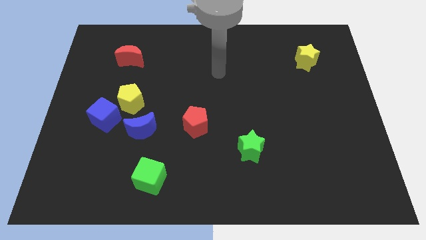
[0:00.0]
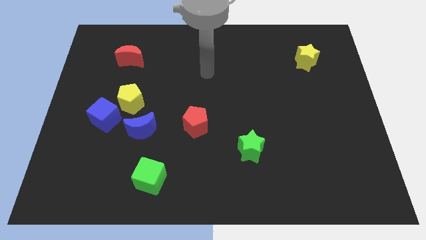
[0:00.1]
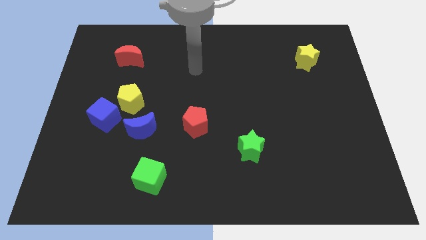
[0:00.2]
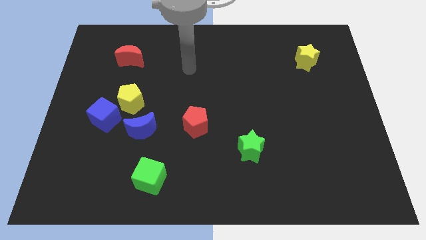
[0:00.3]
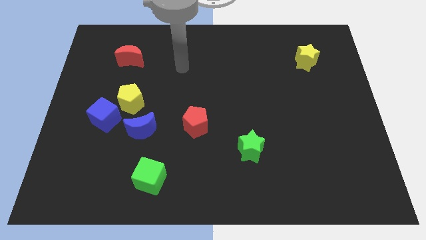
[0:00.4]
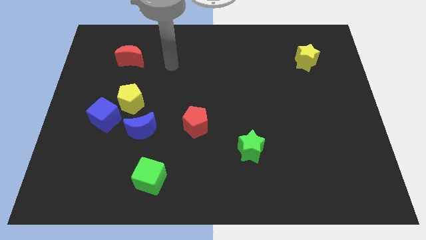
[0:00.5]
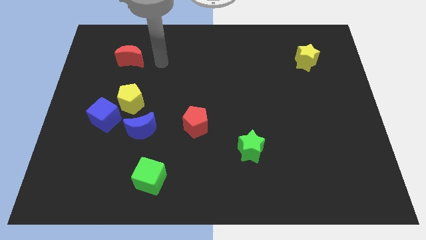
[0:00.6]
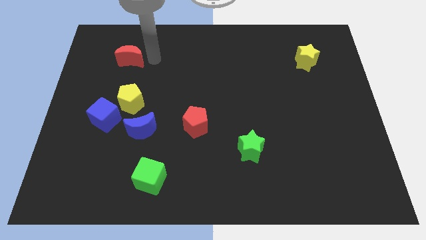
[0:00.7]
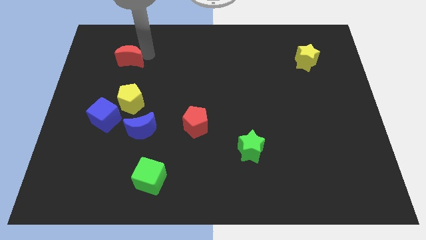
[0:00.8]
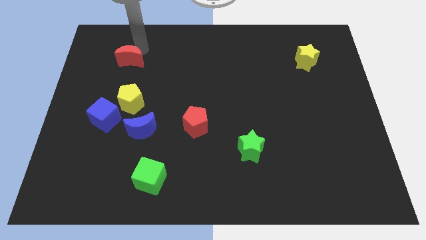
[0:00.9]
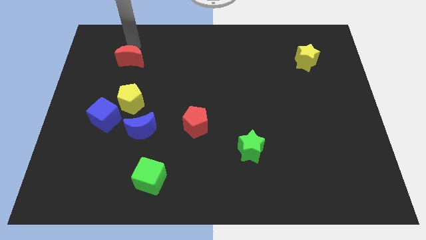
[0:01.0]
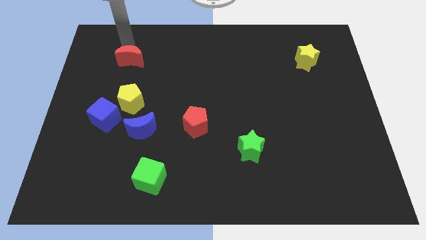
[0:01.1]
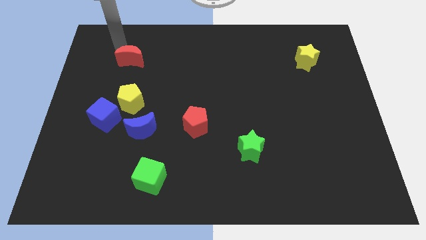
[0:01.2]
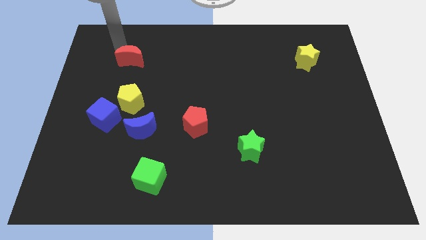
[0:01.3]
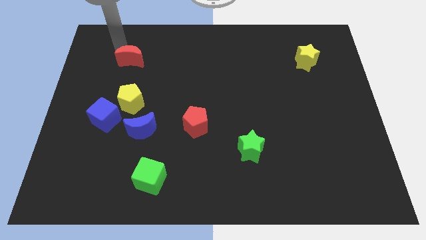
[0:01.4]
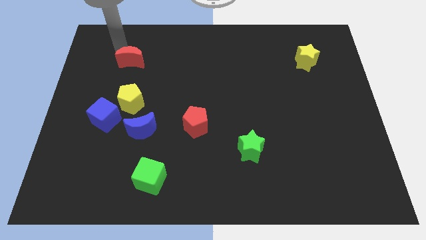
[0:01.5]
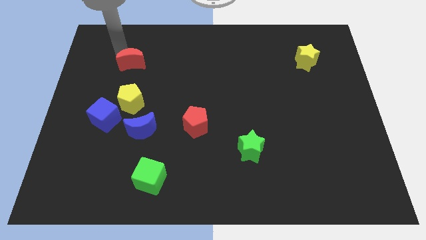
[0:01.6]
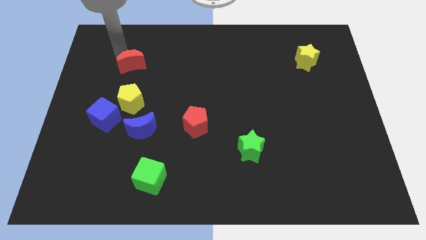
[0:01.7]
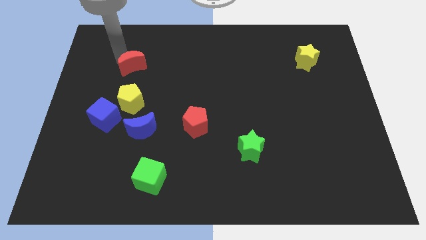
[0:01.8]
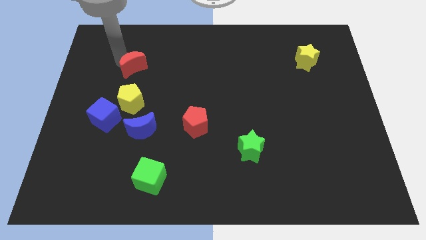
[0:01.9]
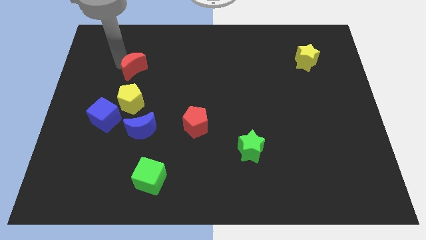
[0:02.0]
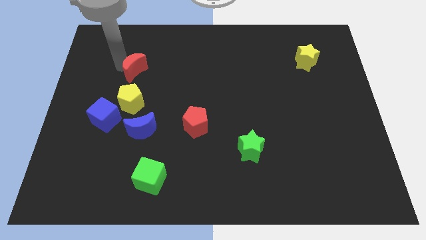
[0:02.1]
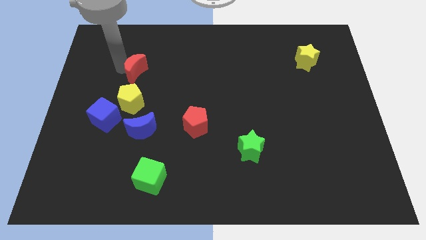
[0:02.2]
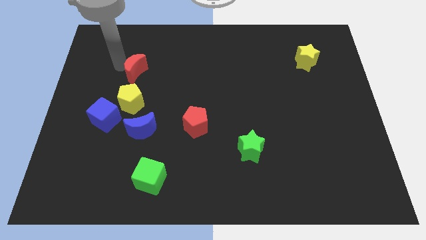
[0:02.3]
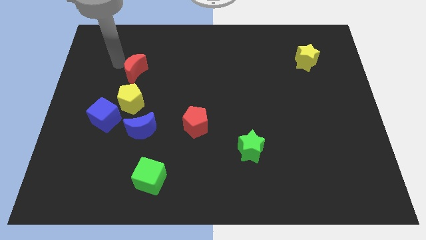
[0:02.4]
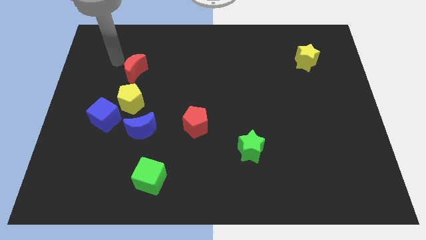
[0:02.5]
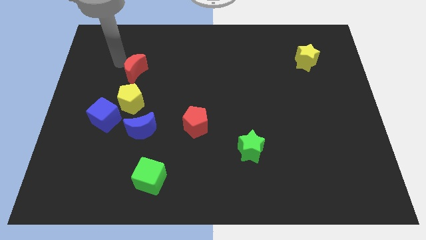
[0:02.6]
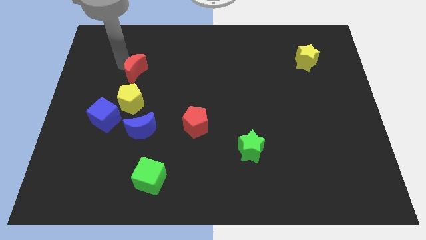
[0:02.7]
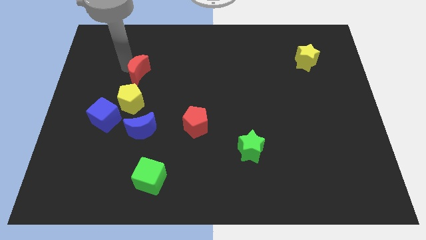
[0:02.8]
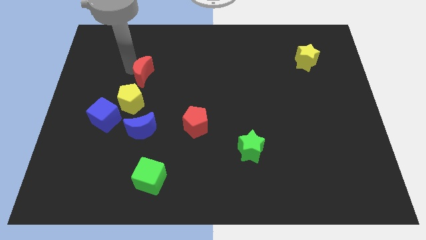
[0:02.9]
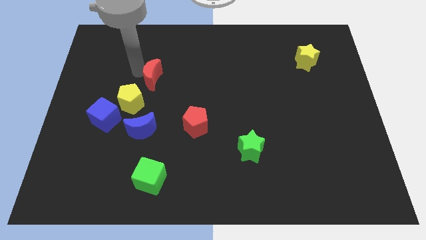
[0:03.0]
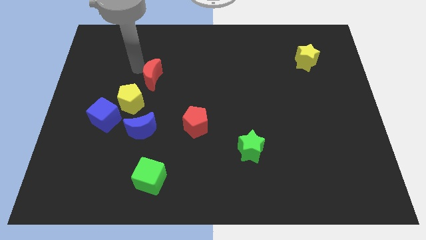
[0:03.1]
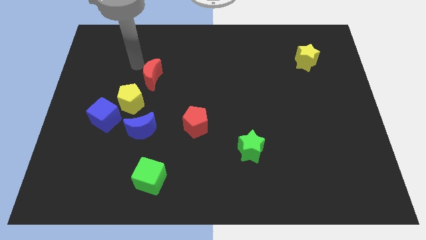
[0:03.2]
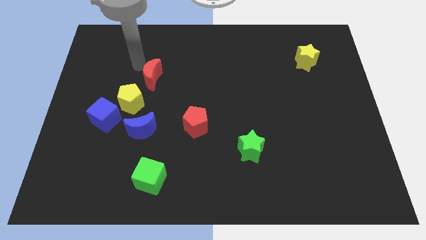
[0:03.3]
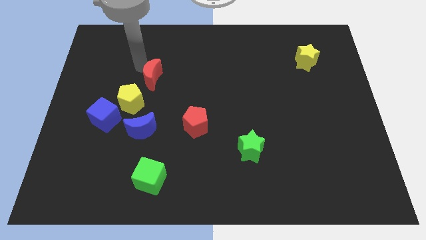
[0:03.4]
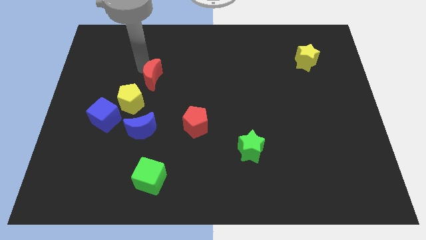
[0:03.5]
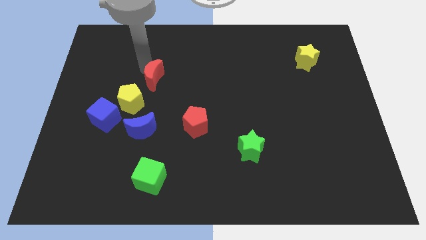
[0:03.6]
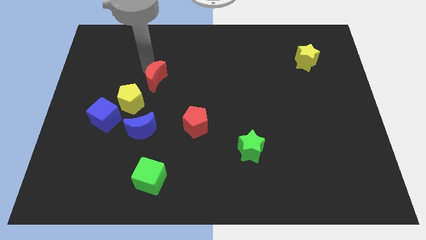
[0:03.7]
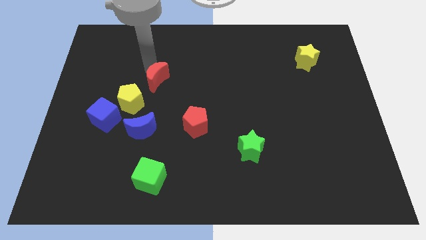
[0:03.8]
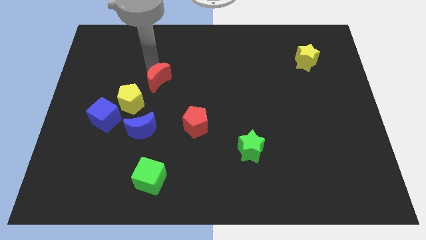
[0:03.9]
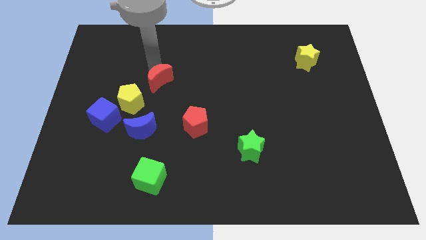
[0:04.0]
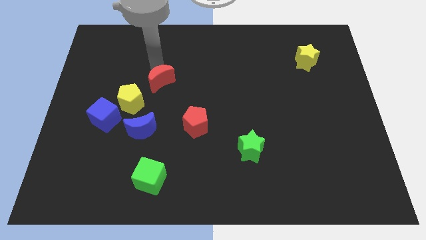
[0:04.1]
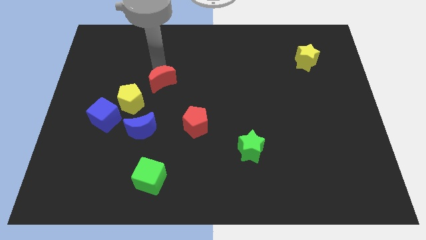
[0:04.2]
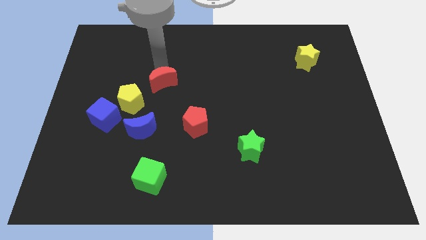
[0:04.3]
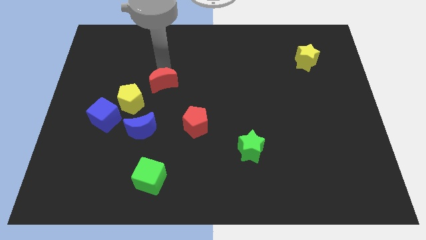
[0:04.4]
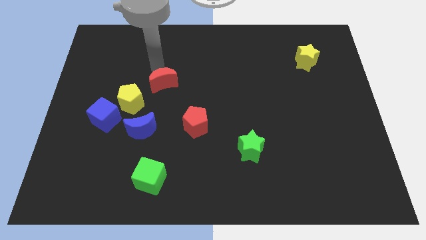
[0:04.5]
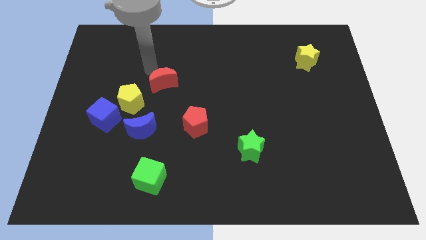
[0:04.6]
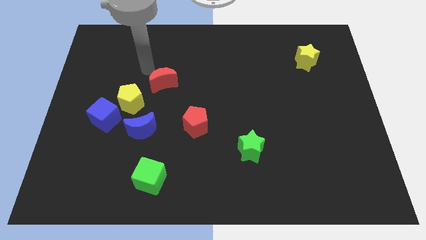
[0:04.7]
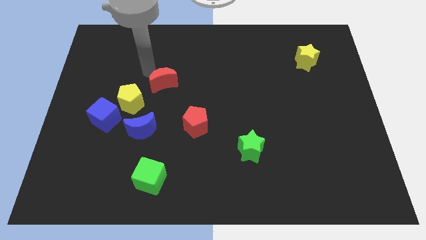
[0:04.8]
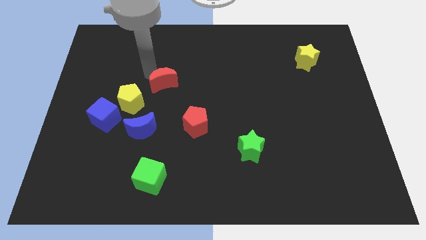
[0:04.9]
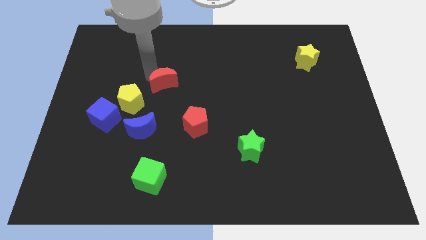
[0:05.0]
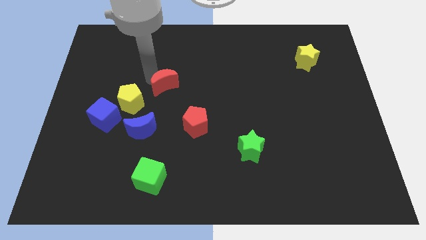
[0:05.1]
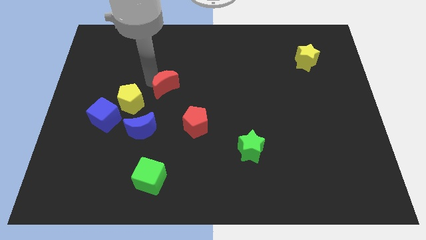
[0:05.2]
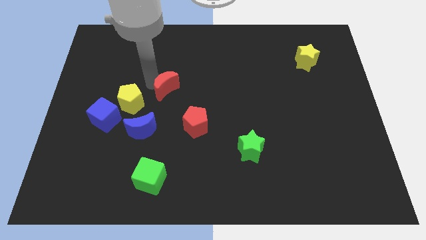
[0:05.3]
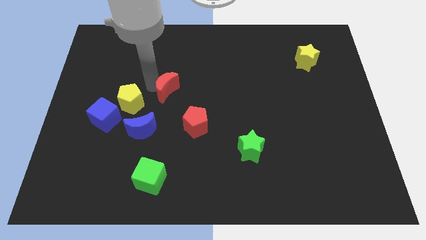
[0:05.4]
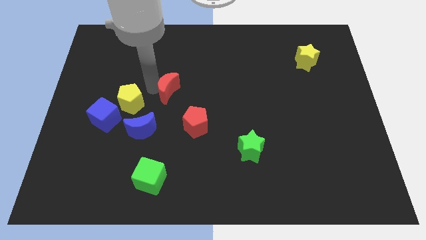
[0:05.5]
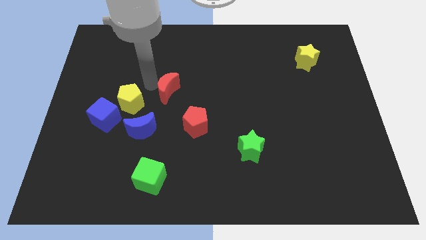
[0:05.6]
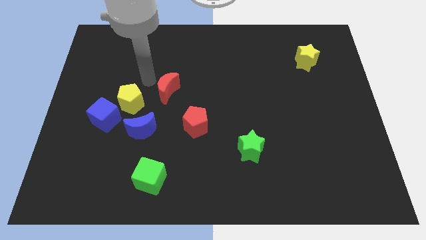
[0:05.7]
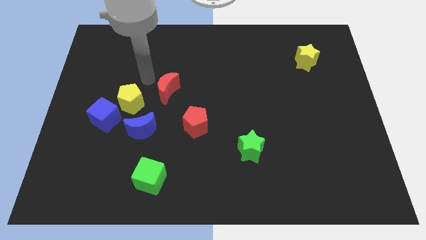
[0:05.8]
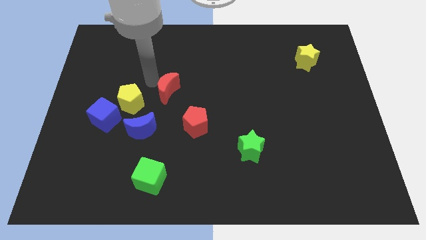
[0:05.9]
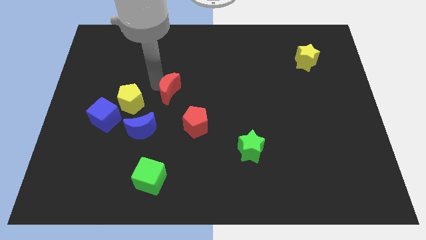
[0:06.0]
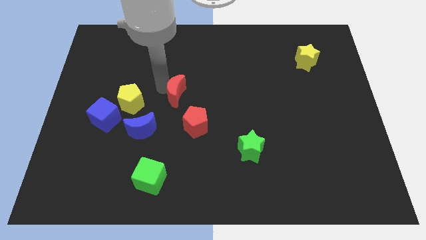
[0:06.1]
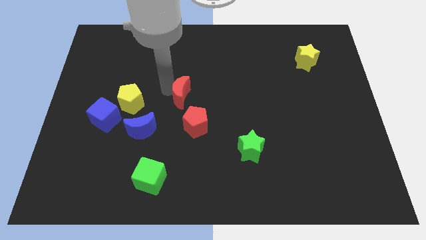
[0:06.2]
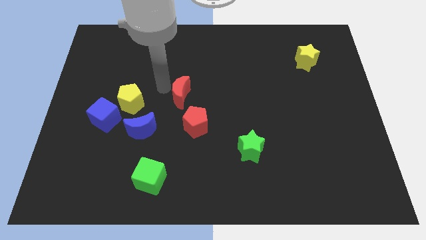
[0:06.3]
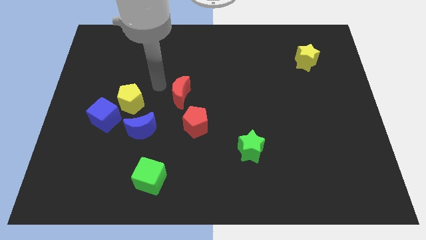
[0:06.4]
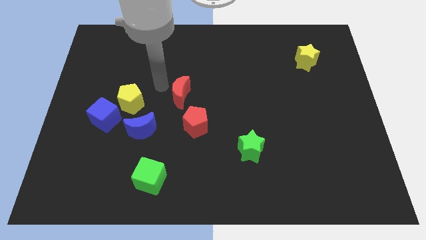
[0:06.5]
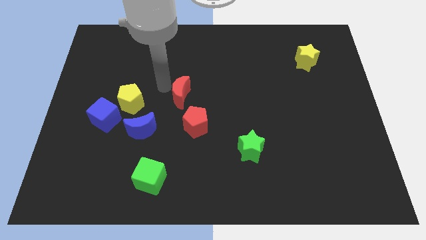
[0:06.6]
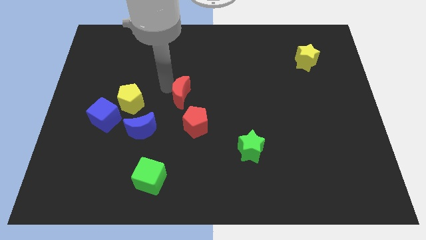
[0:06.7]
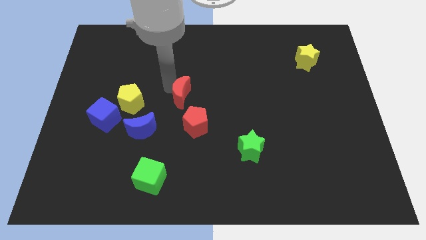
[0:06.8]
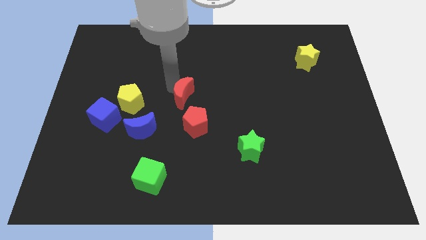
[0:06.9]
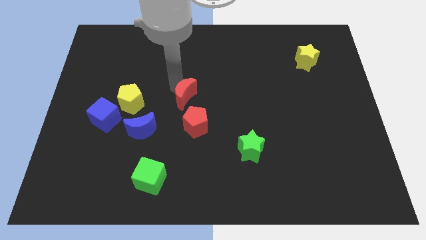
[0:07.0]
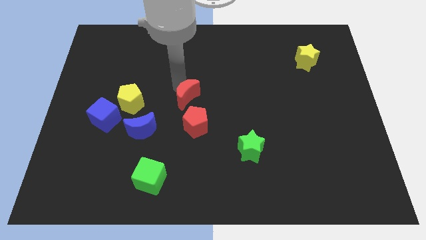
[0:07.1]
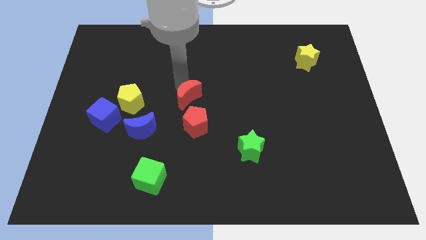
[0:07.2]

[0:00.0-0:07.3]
slide the red moon diagonally down and right

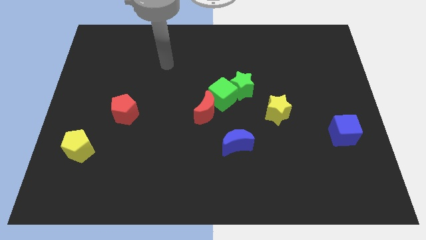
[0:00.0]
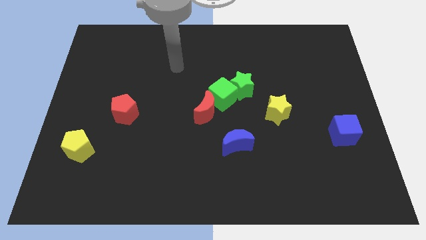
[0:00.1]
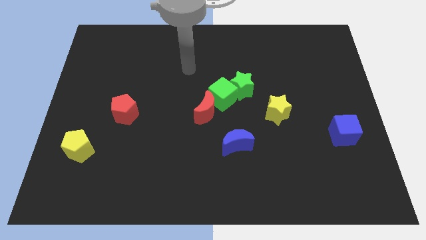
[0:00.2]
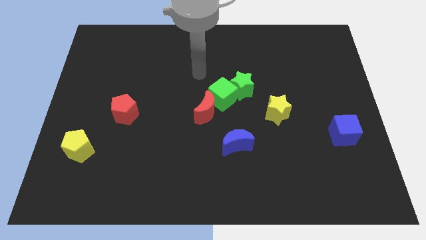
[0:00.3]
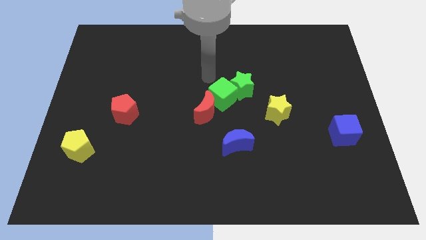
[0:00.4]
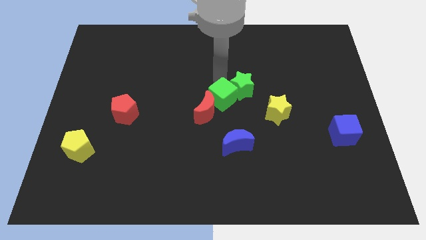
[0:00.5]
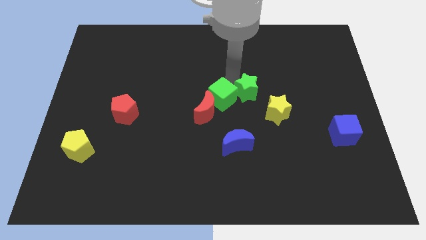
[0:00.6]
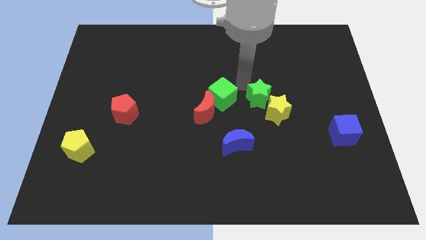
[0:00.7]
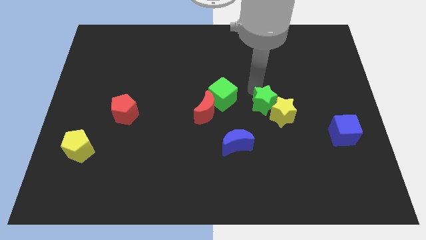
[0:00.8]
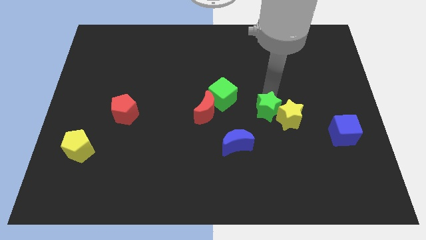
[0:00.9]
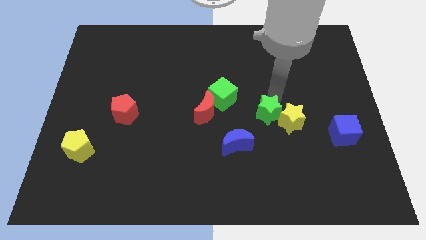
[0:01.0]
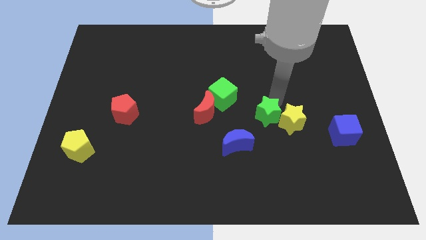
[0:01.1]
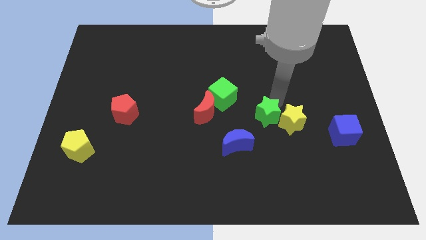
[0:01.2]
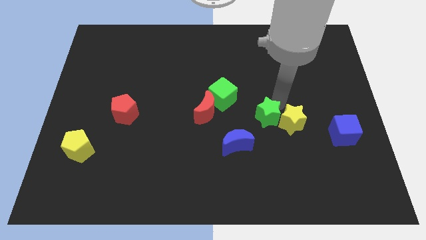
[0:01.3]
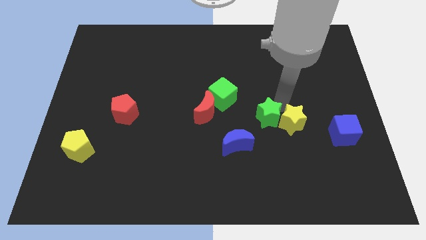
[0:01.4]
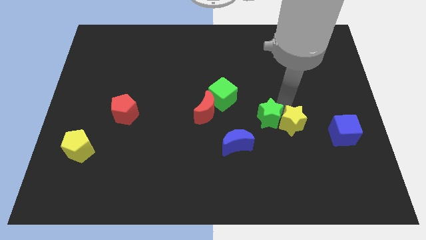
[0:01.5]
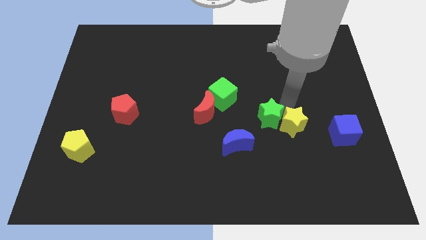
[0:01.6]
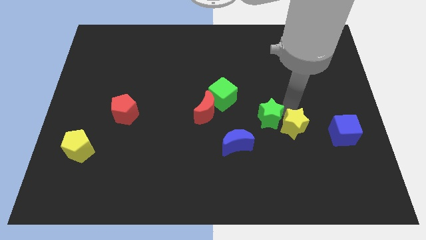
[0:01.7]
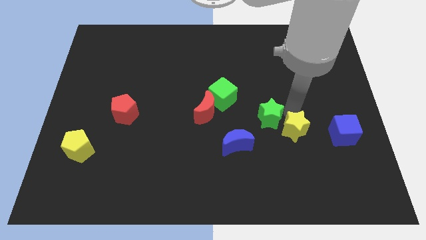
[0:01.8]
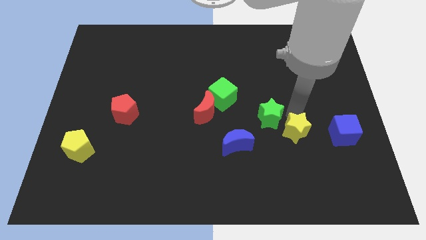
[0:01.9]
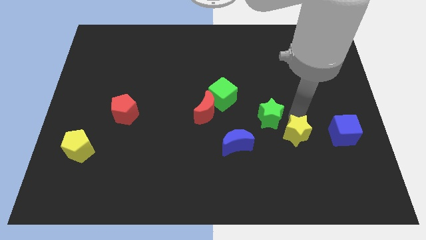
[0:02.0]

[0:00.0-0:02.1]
move the yellow star a bit downwards and then right
